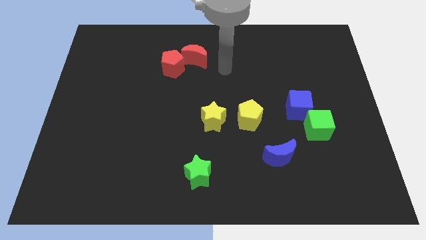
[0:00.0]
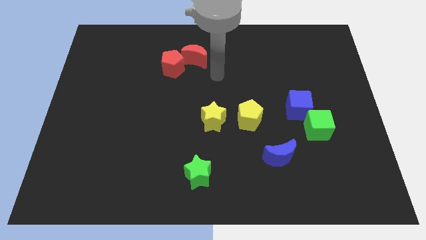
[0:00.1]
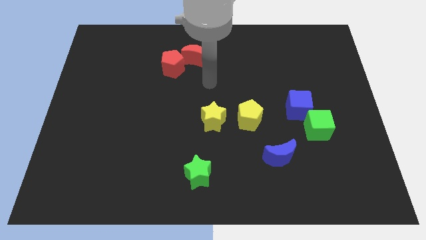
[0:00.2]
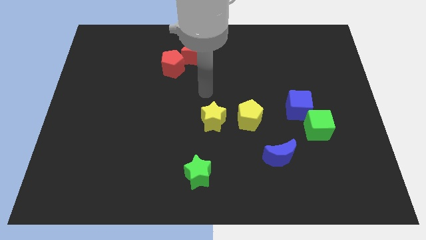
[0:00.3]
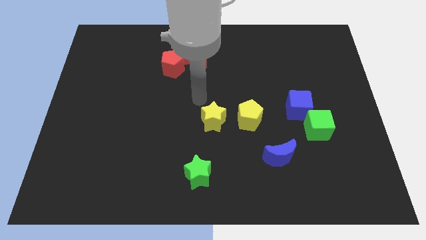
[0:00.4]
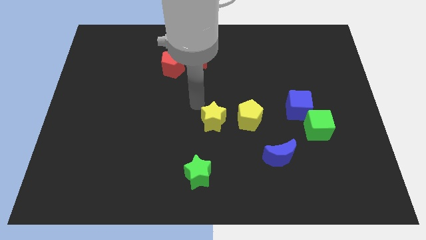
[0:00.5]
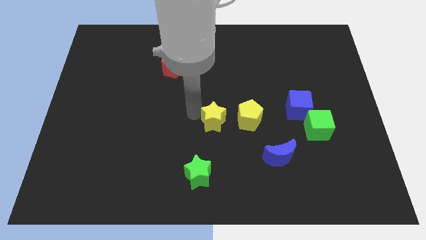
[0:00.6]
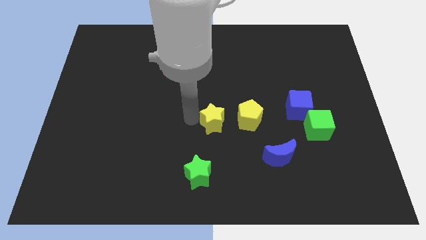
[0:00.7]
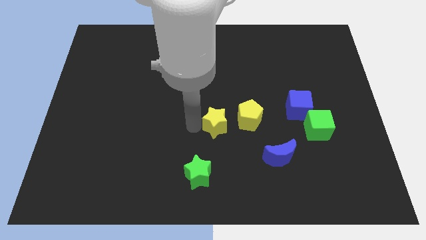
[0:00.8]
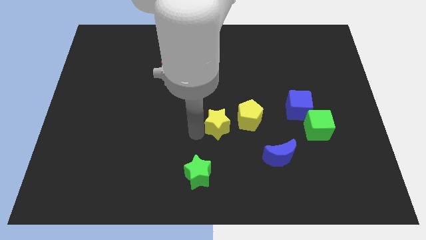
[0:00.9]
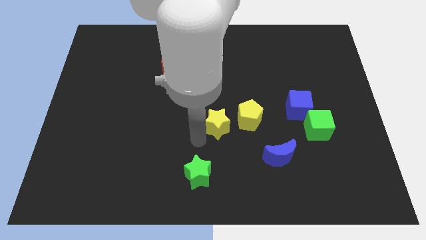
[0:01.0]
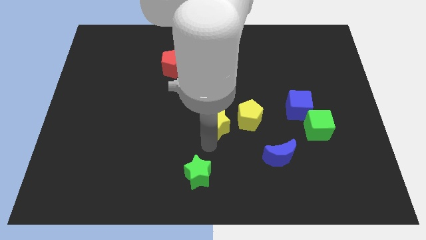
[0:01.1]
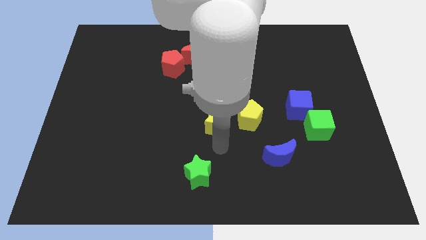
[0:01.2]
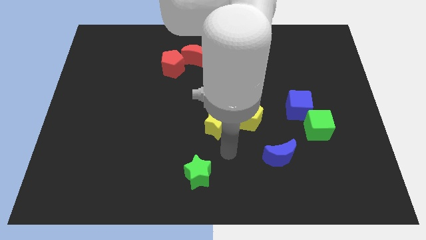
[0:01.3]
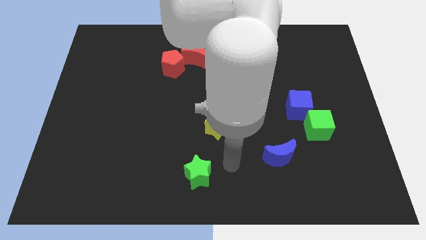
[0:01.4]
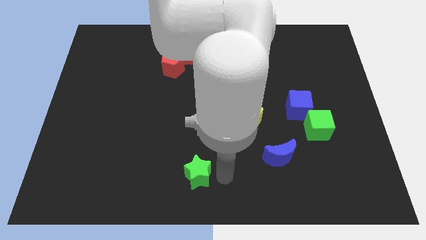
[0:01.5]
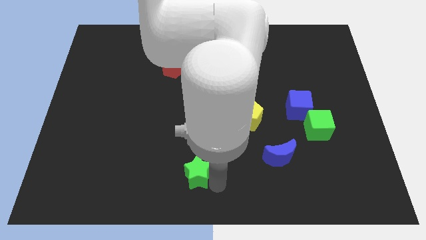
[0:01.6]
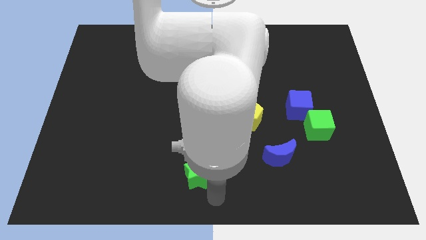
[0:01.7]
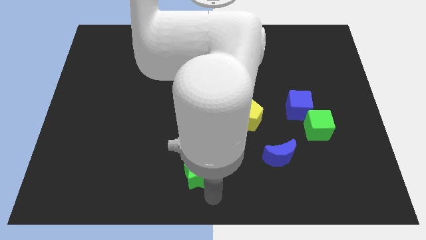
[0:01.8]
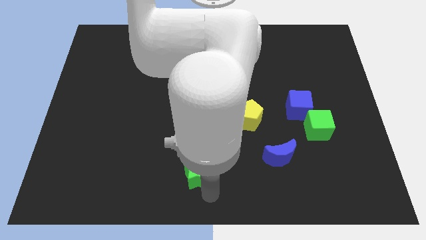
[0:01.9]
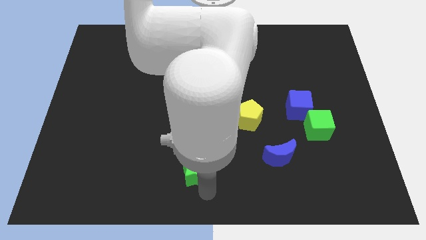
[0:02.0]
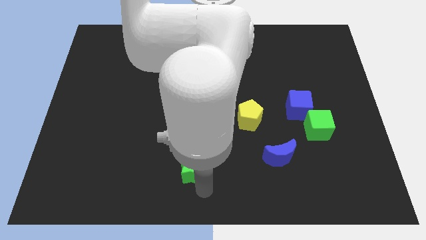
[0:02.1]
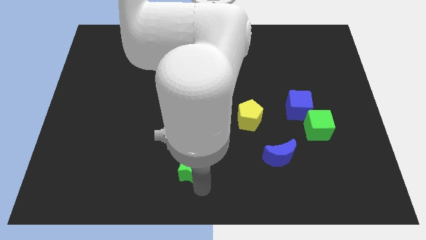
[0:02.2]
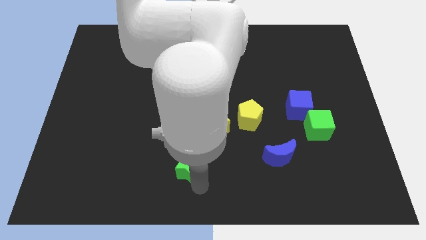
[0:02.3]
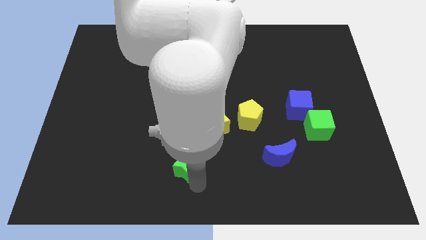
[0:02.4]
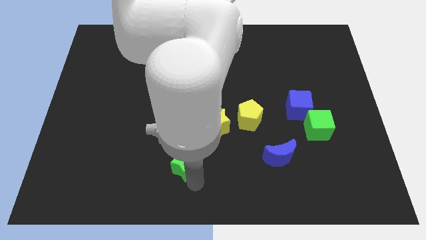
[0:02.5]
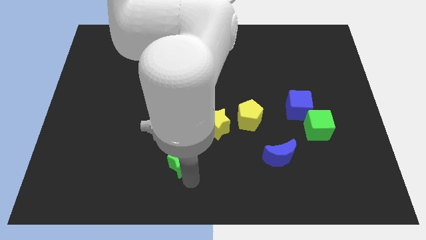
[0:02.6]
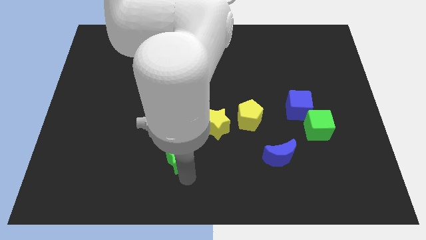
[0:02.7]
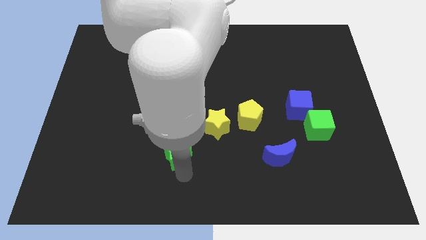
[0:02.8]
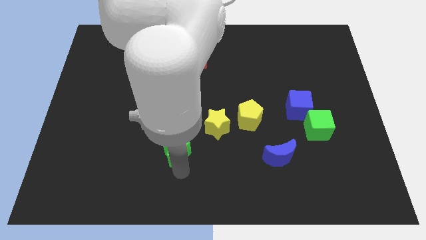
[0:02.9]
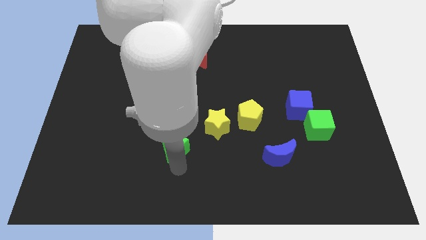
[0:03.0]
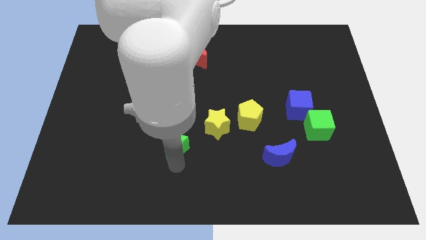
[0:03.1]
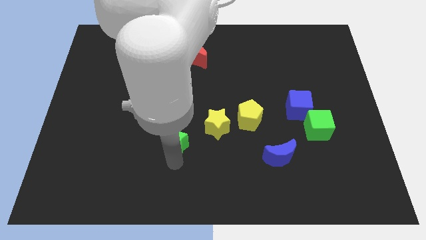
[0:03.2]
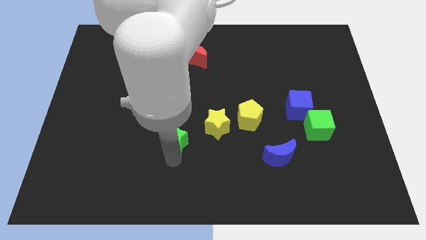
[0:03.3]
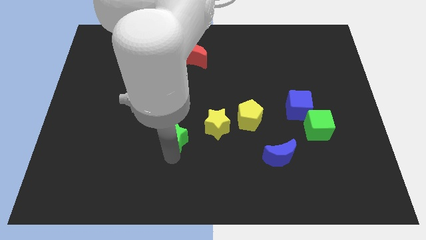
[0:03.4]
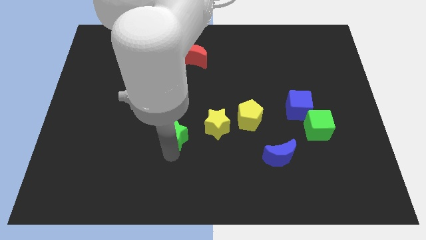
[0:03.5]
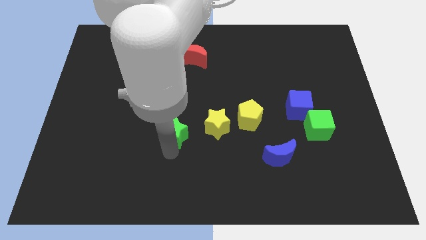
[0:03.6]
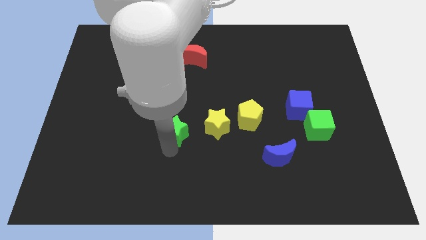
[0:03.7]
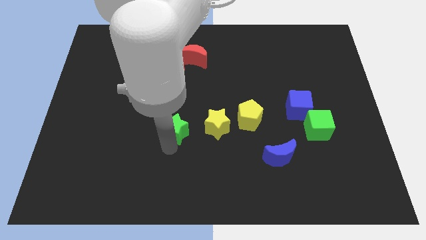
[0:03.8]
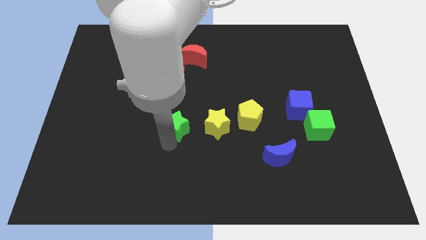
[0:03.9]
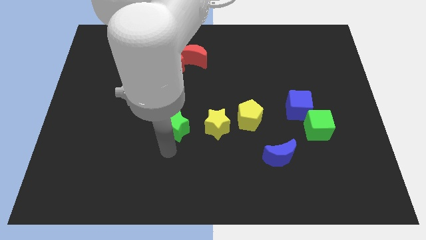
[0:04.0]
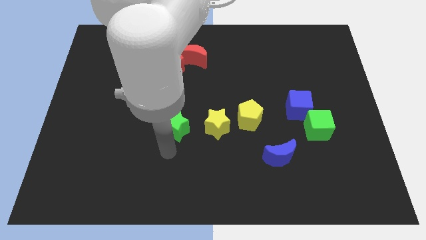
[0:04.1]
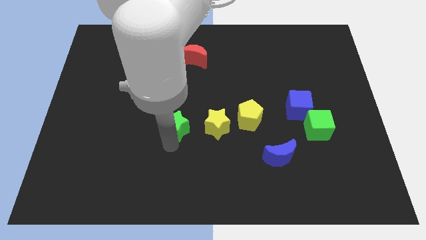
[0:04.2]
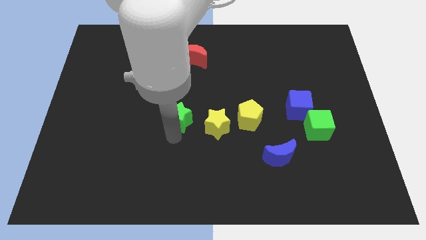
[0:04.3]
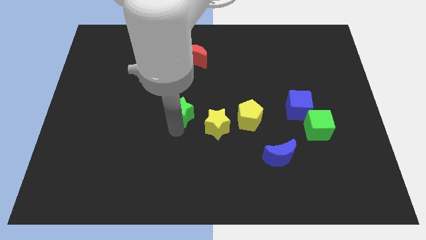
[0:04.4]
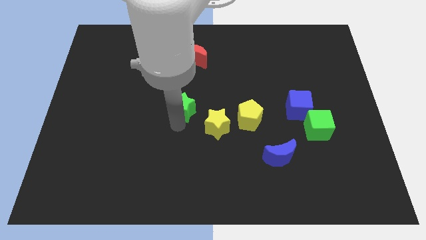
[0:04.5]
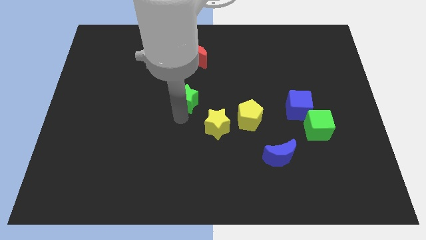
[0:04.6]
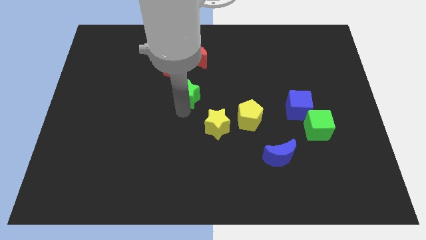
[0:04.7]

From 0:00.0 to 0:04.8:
put the green star to the bottom right of the red pentagon

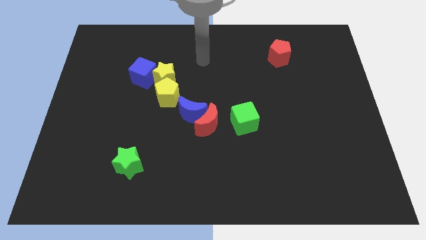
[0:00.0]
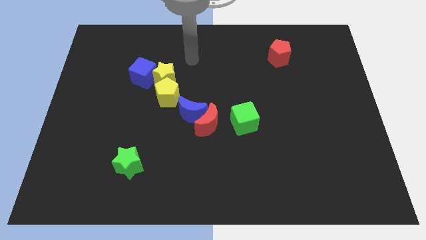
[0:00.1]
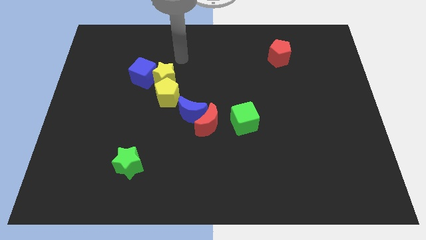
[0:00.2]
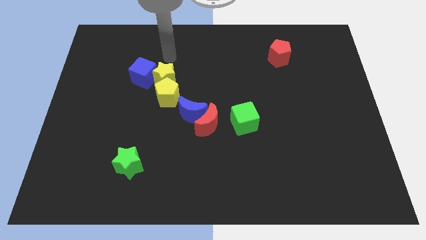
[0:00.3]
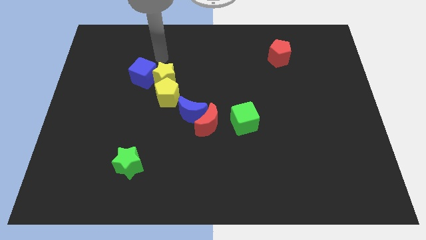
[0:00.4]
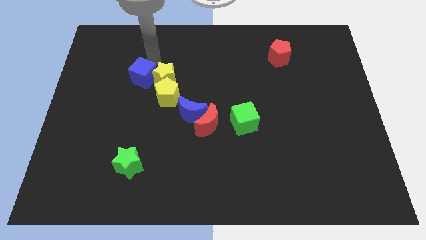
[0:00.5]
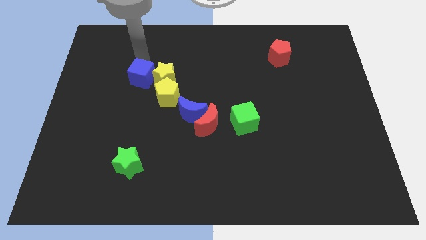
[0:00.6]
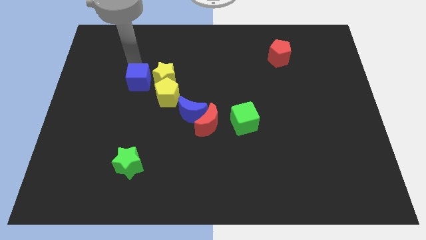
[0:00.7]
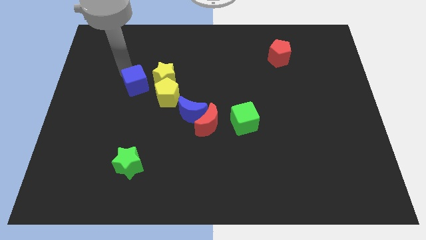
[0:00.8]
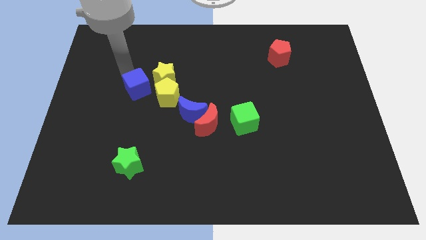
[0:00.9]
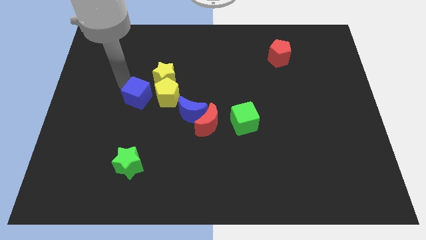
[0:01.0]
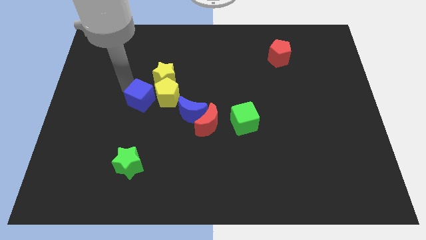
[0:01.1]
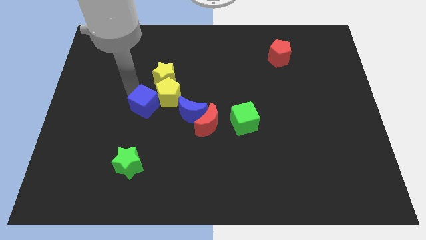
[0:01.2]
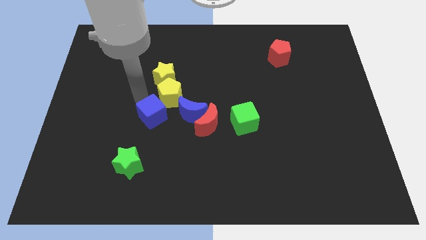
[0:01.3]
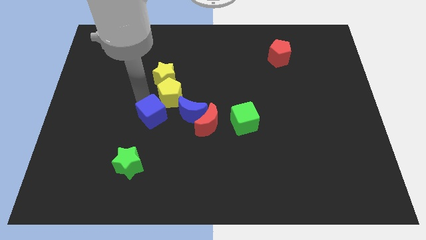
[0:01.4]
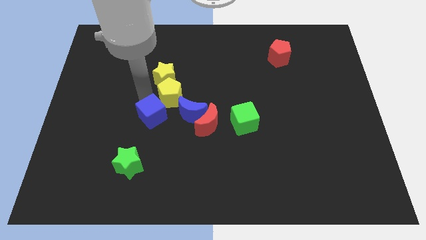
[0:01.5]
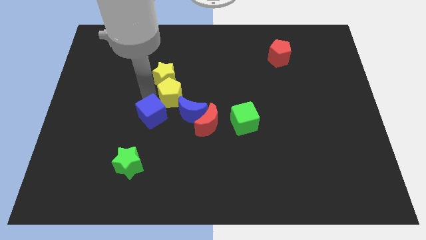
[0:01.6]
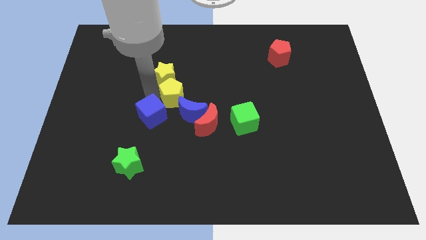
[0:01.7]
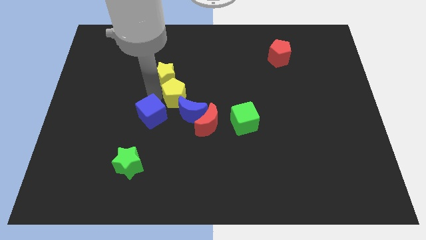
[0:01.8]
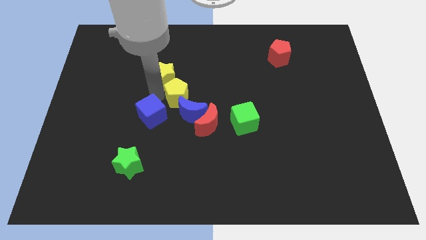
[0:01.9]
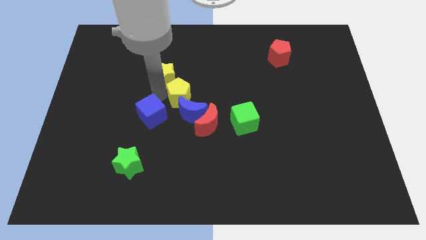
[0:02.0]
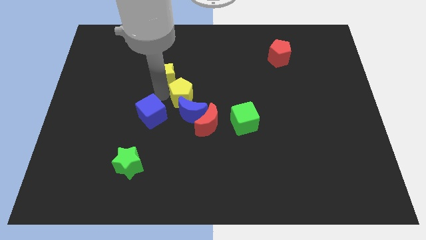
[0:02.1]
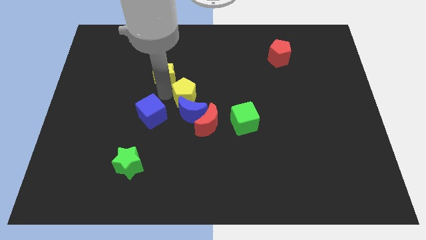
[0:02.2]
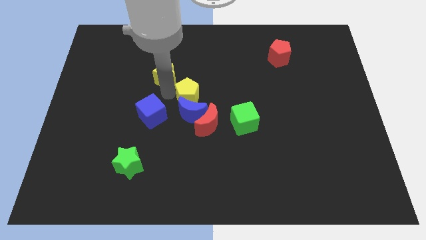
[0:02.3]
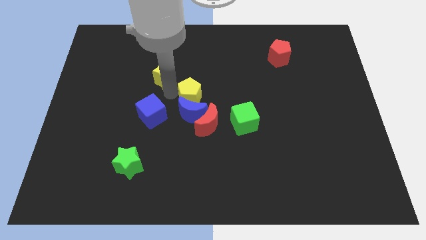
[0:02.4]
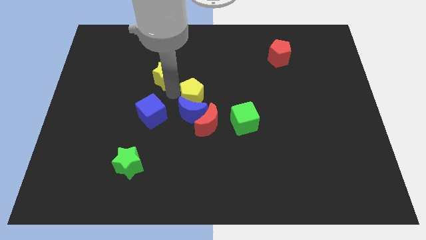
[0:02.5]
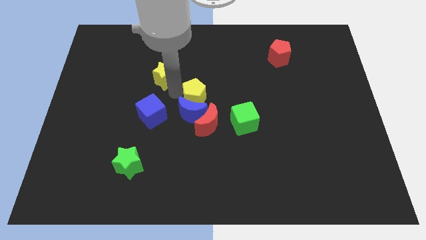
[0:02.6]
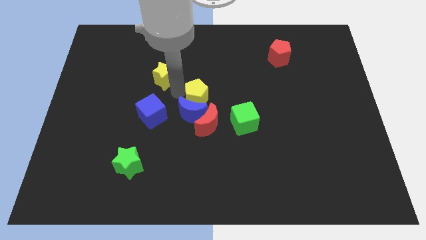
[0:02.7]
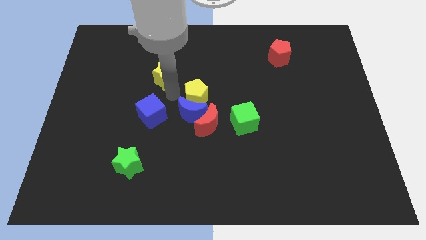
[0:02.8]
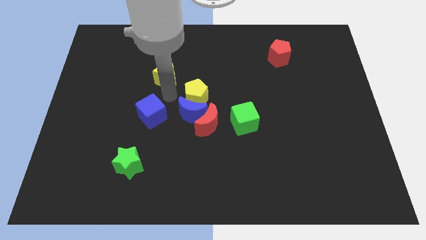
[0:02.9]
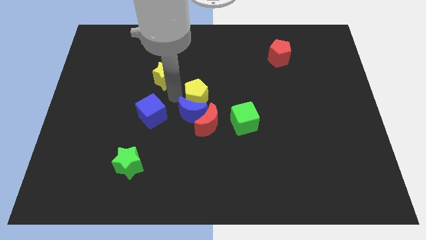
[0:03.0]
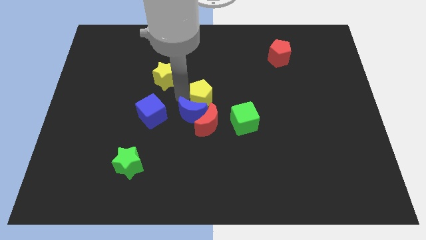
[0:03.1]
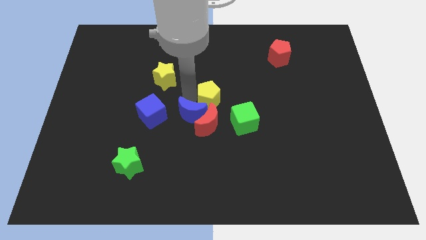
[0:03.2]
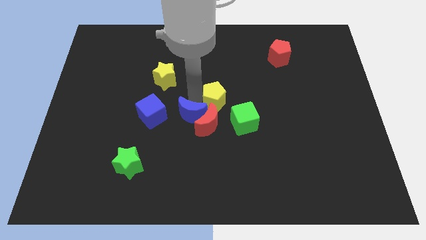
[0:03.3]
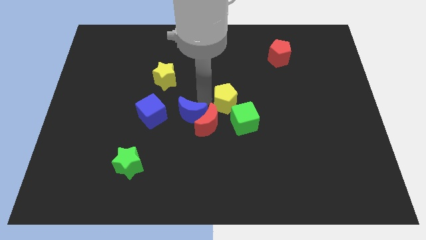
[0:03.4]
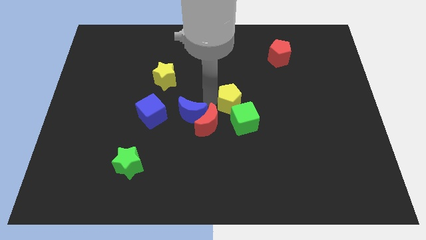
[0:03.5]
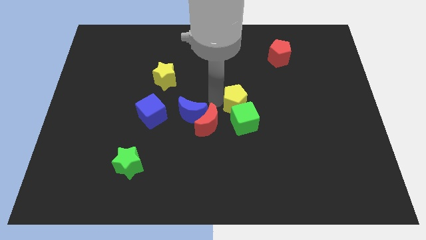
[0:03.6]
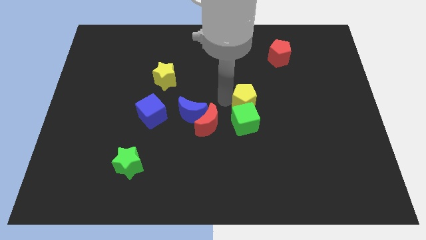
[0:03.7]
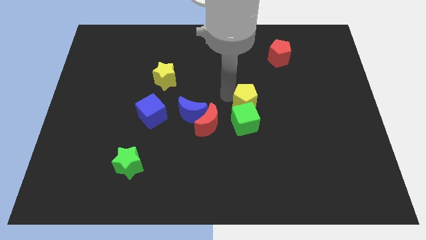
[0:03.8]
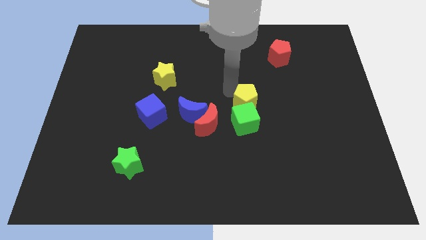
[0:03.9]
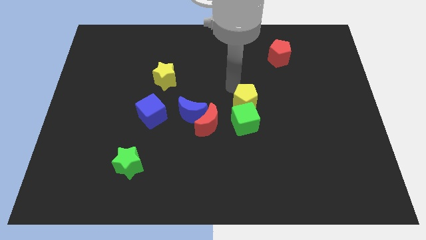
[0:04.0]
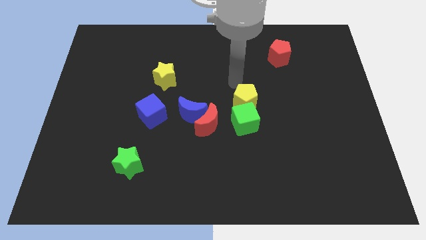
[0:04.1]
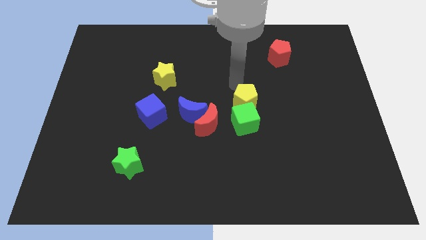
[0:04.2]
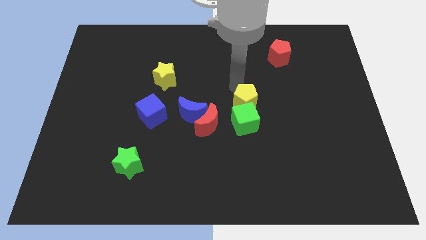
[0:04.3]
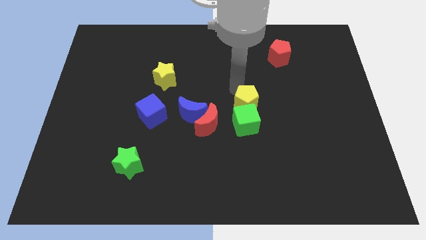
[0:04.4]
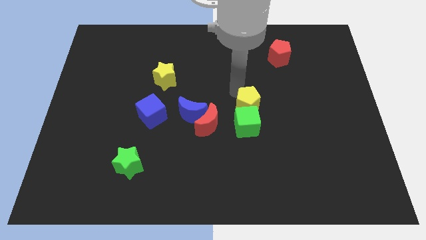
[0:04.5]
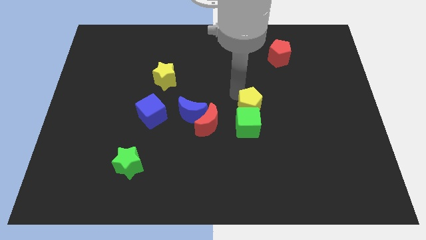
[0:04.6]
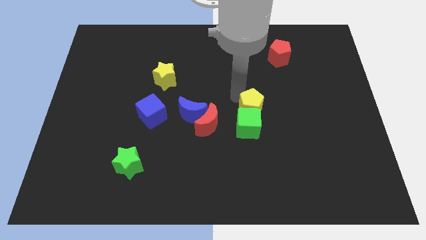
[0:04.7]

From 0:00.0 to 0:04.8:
move the yellow pentagon to the right of the red moon
